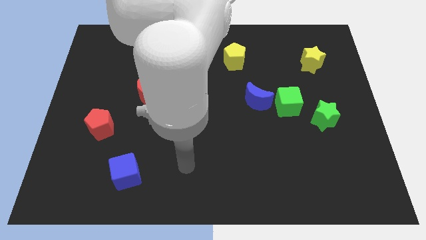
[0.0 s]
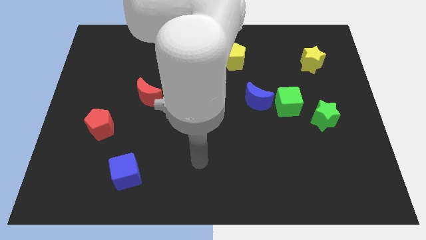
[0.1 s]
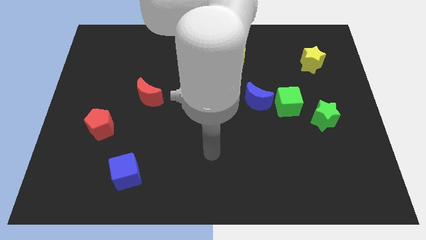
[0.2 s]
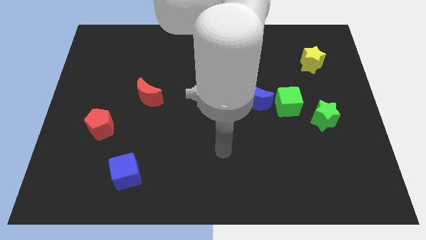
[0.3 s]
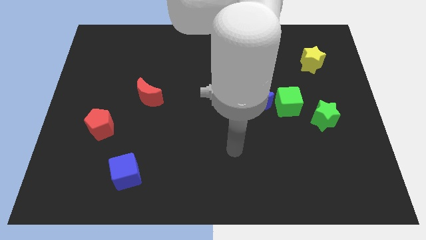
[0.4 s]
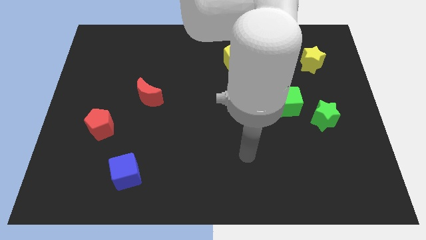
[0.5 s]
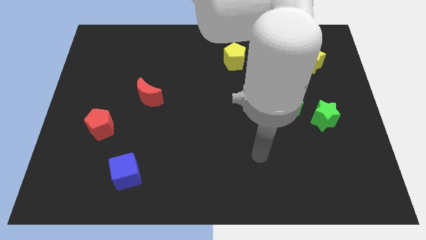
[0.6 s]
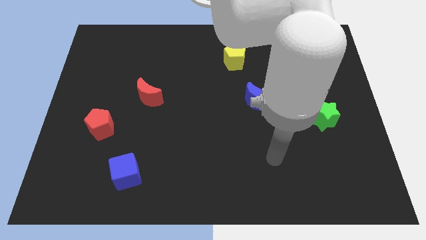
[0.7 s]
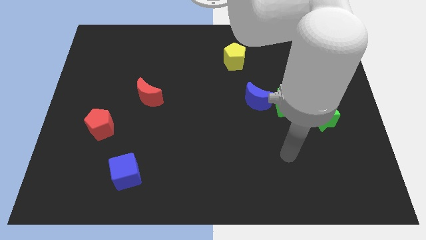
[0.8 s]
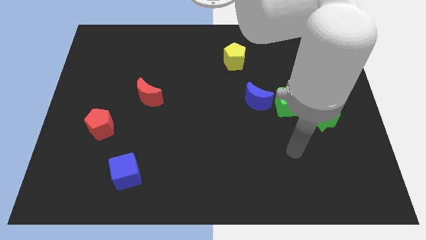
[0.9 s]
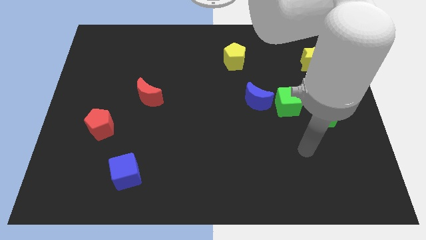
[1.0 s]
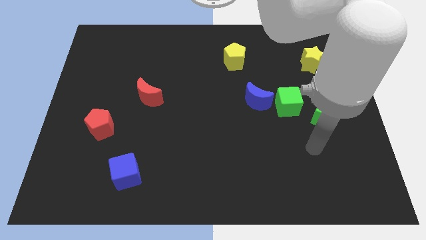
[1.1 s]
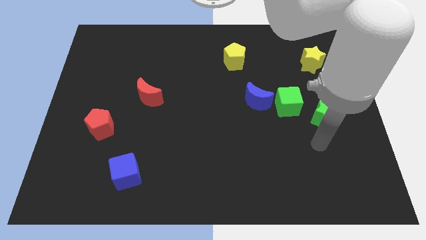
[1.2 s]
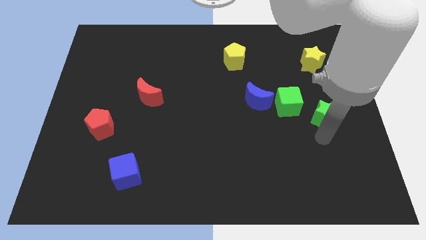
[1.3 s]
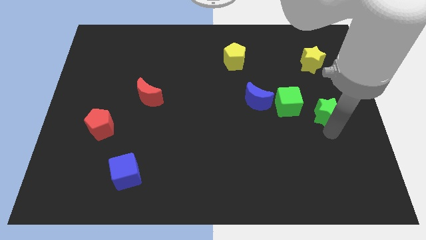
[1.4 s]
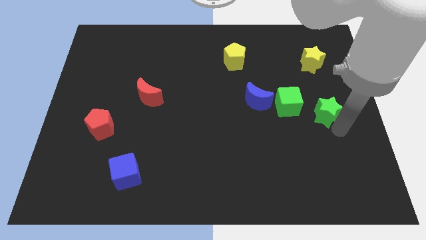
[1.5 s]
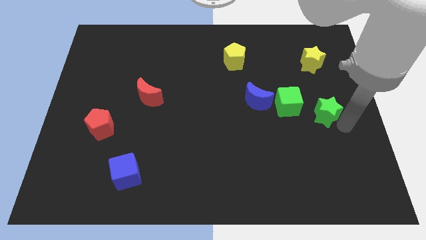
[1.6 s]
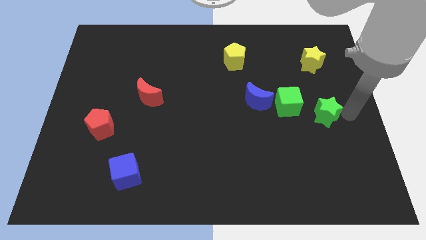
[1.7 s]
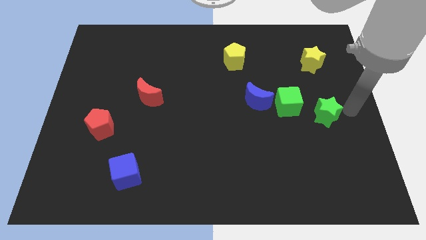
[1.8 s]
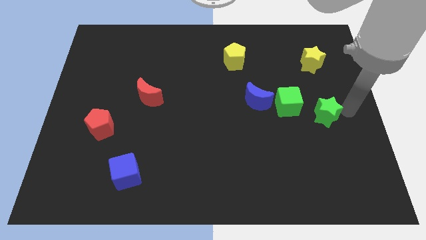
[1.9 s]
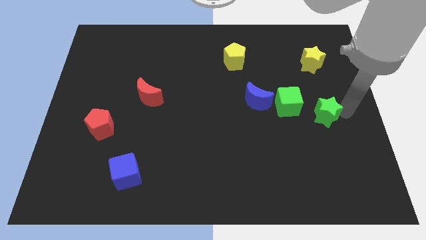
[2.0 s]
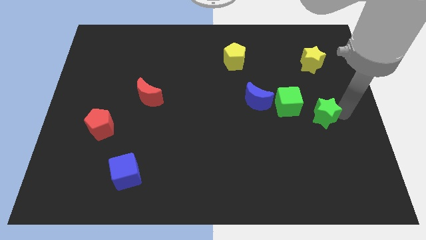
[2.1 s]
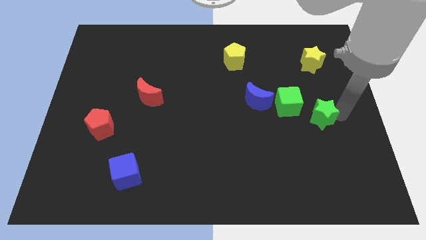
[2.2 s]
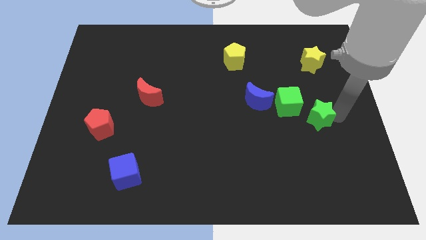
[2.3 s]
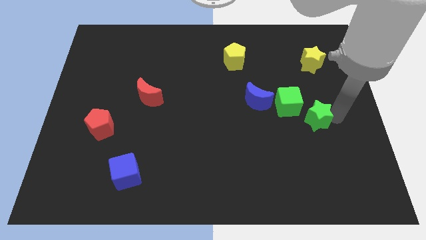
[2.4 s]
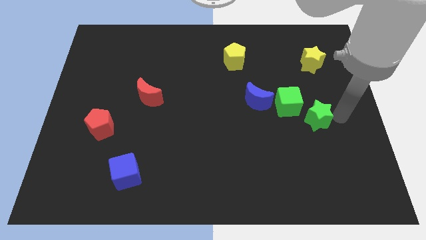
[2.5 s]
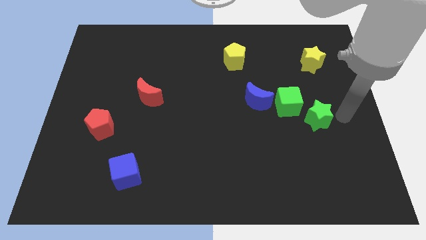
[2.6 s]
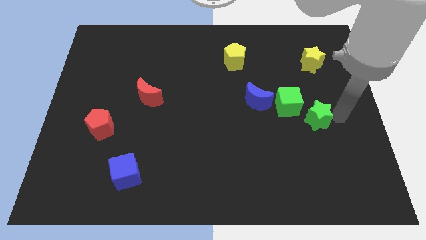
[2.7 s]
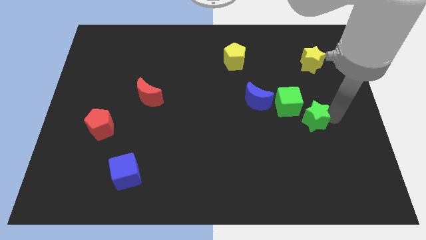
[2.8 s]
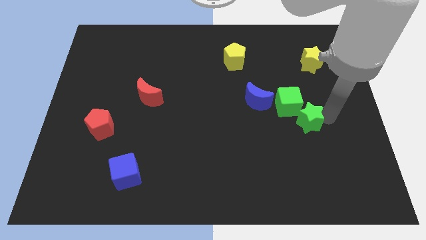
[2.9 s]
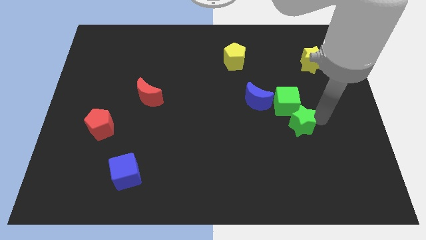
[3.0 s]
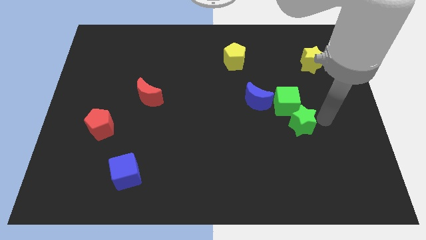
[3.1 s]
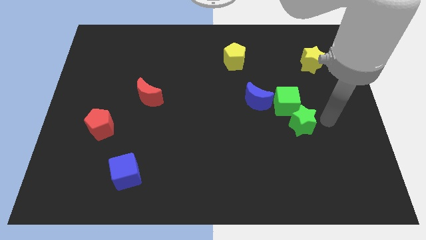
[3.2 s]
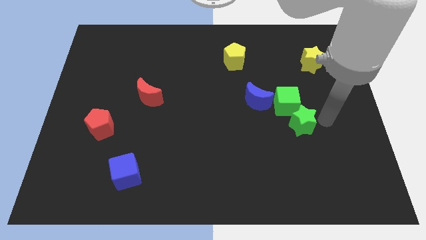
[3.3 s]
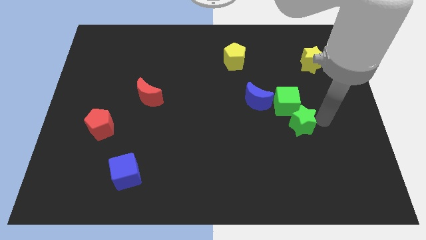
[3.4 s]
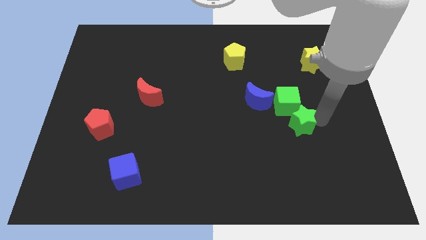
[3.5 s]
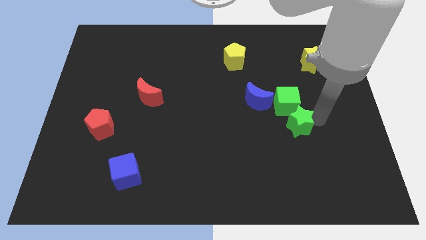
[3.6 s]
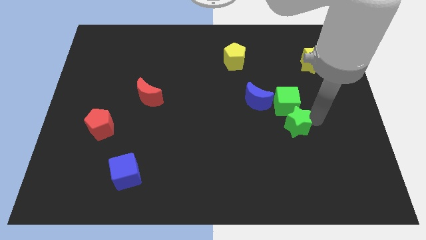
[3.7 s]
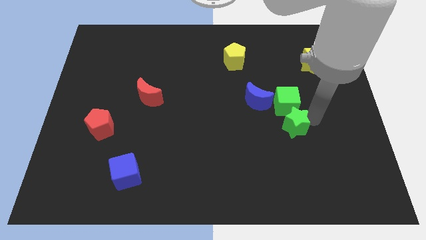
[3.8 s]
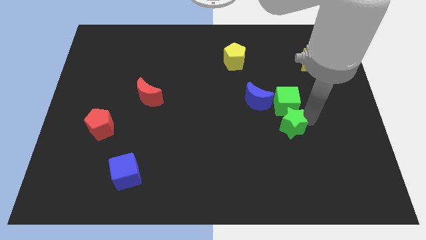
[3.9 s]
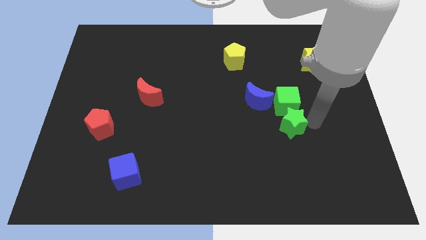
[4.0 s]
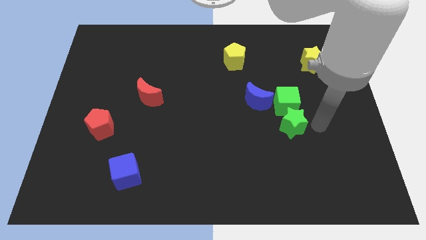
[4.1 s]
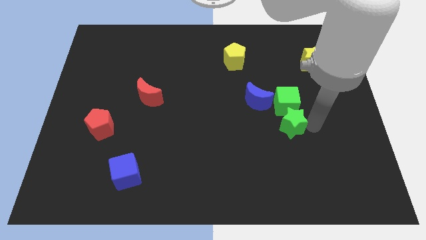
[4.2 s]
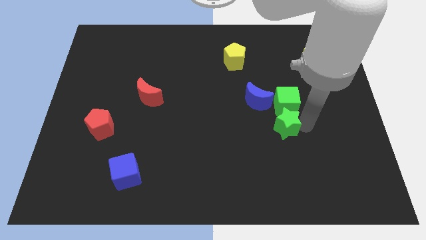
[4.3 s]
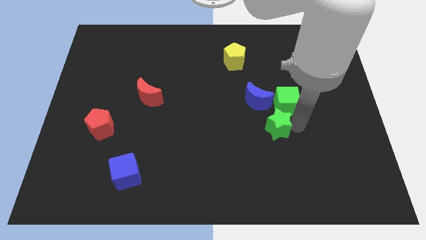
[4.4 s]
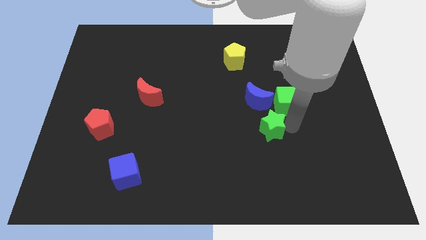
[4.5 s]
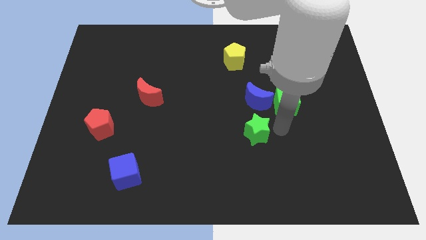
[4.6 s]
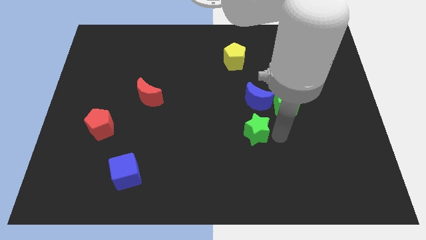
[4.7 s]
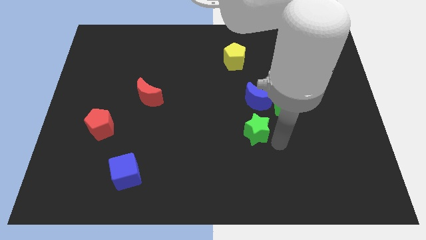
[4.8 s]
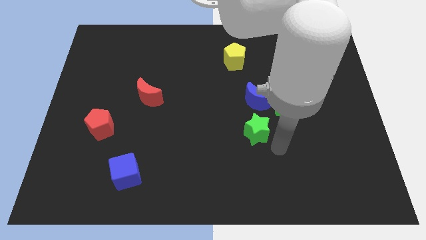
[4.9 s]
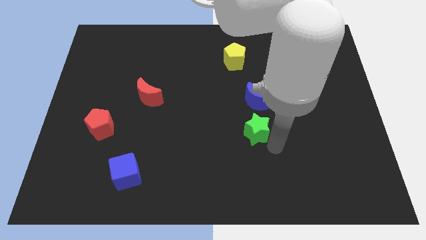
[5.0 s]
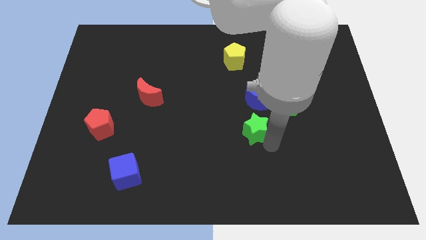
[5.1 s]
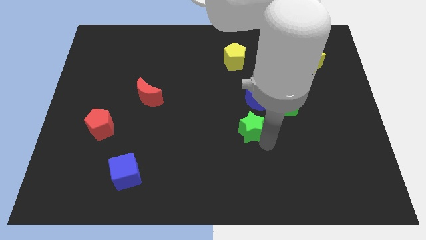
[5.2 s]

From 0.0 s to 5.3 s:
move the green star to the middle of the board

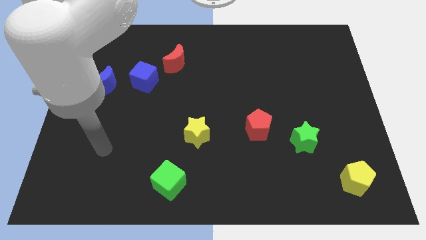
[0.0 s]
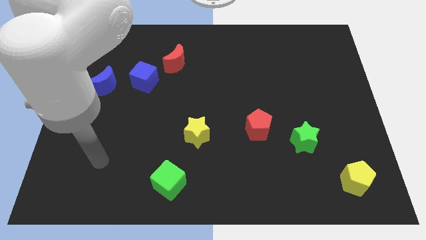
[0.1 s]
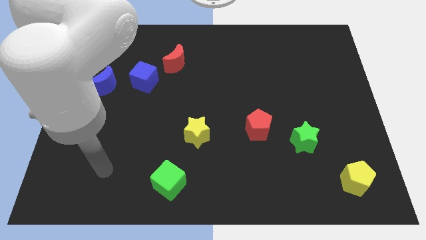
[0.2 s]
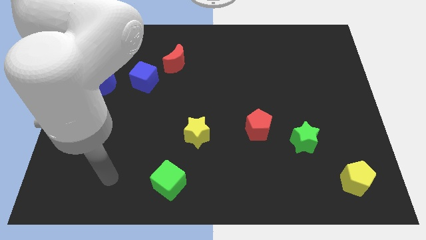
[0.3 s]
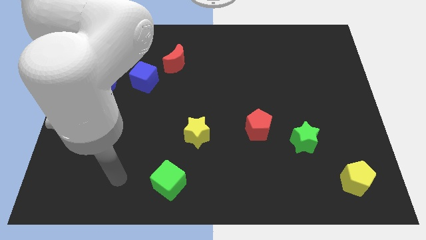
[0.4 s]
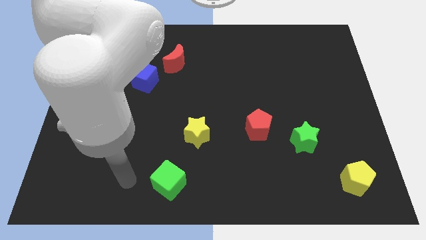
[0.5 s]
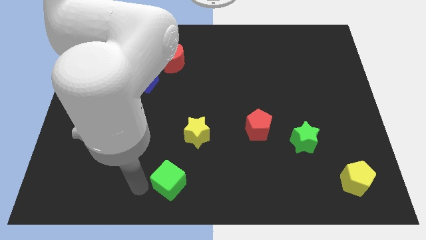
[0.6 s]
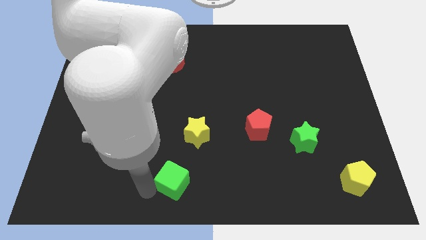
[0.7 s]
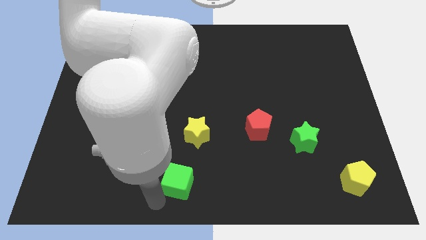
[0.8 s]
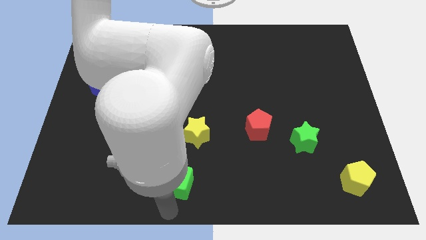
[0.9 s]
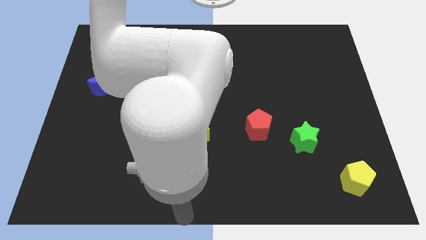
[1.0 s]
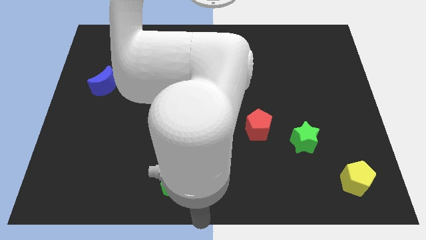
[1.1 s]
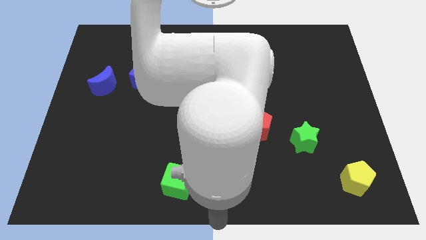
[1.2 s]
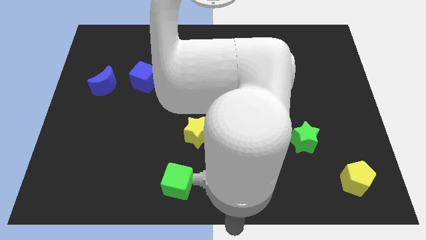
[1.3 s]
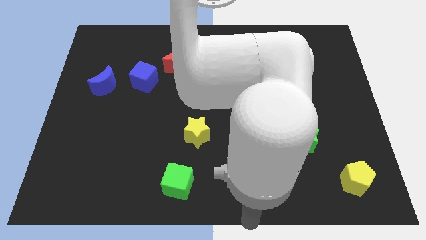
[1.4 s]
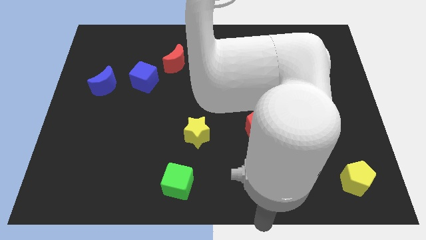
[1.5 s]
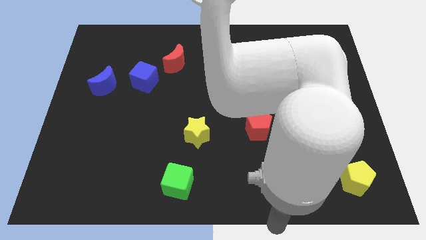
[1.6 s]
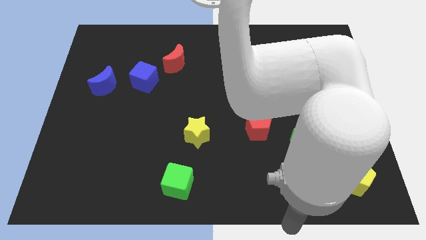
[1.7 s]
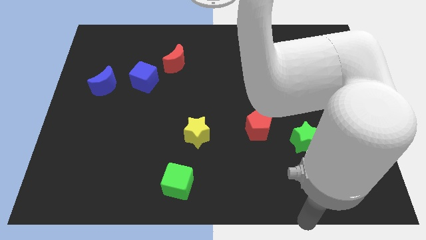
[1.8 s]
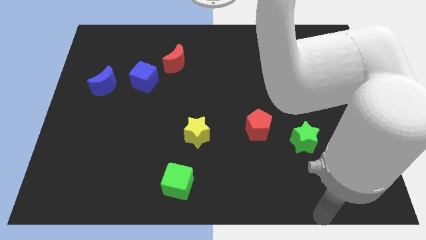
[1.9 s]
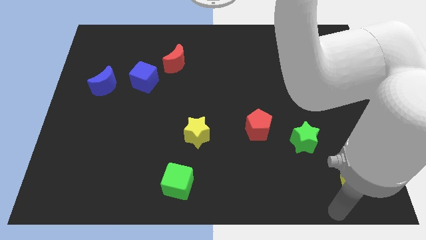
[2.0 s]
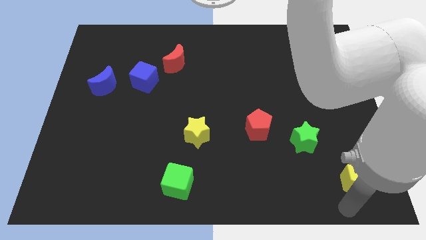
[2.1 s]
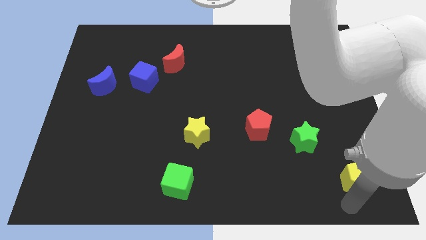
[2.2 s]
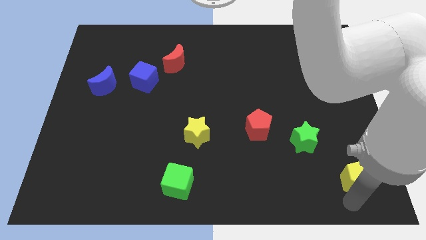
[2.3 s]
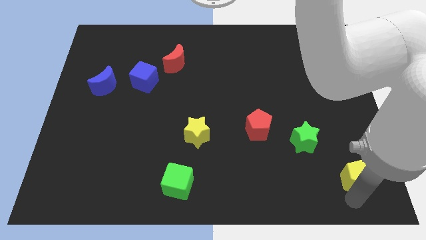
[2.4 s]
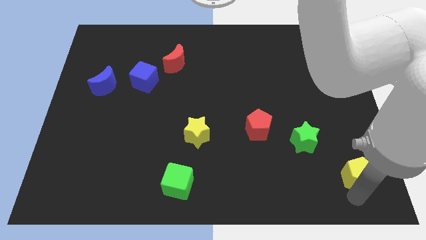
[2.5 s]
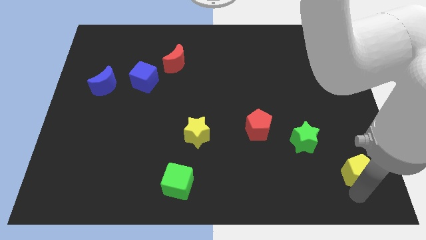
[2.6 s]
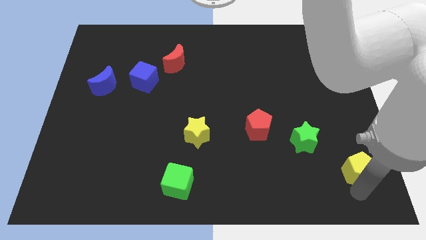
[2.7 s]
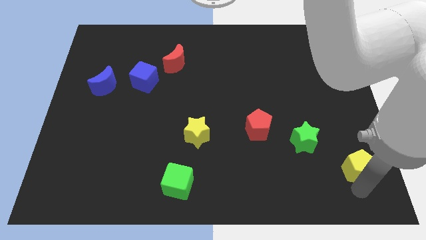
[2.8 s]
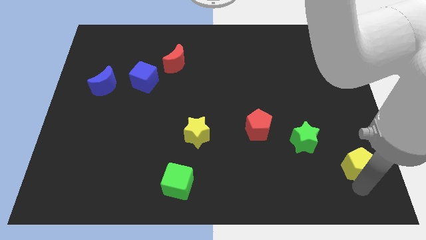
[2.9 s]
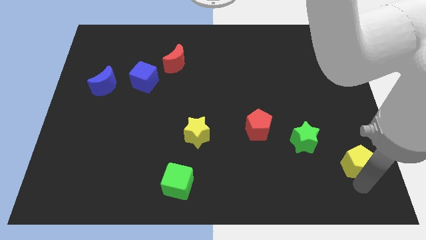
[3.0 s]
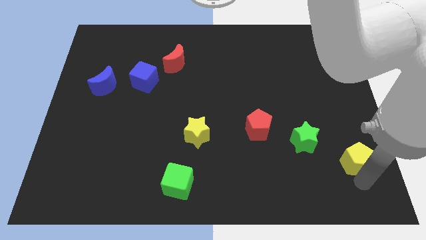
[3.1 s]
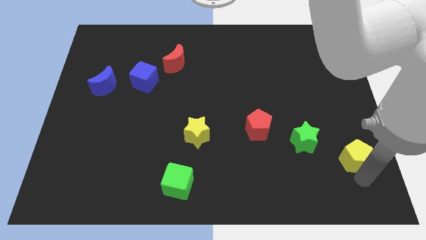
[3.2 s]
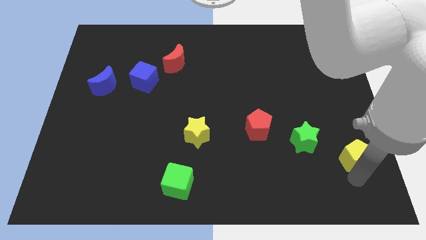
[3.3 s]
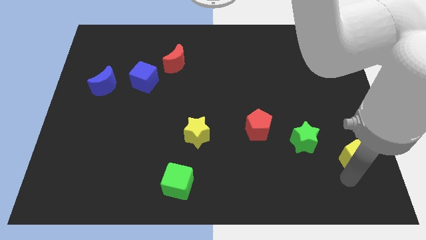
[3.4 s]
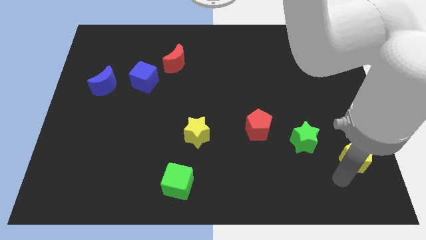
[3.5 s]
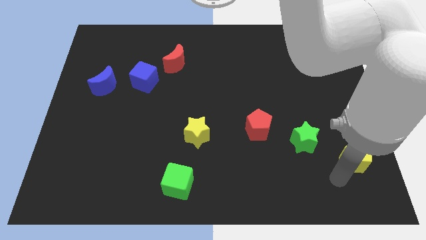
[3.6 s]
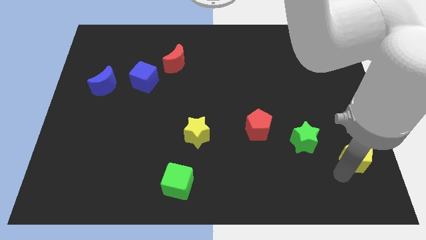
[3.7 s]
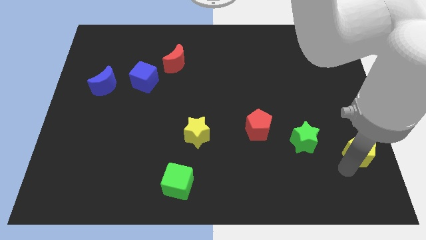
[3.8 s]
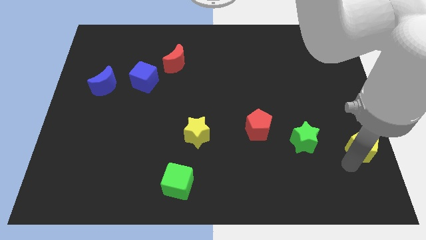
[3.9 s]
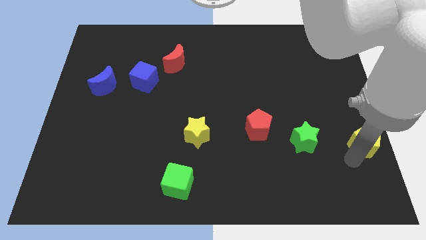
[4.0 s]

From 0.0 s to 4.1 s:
move the yellow pentagon to the right side of the board
